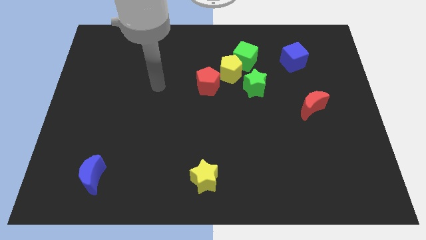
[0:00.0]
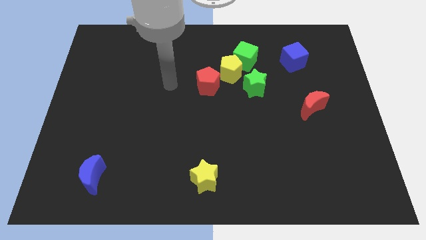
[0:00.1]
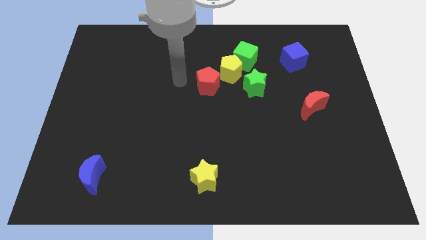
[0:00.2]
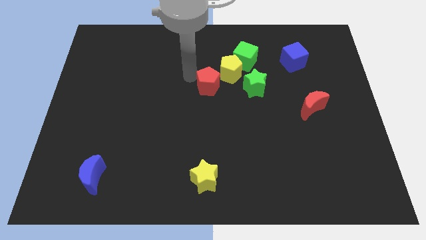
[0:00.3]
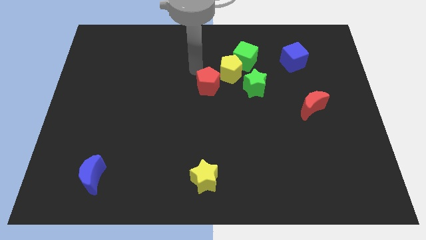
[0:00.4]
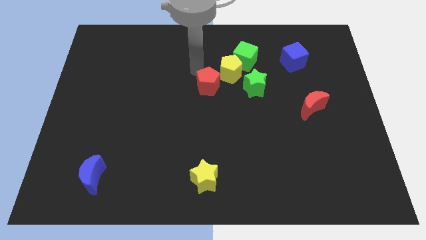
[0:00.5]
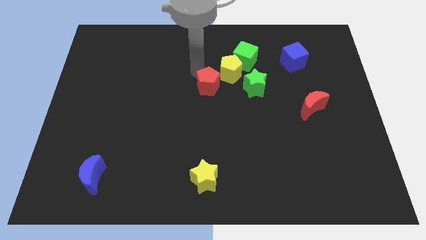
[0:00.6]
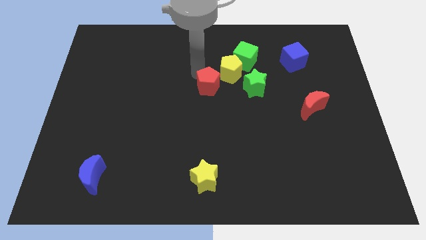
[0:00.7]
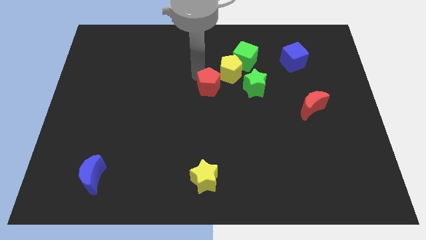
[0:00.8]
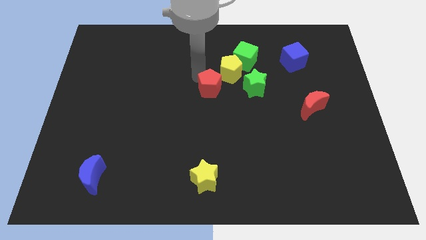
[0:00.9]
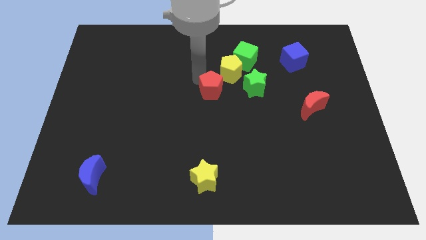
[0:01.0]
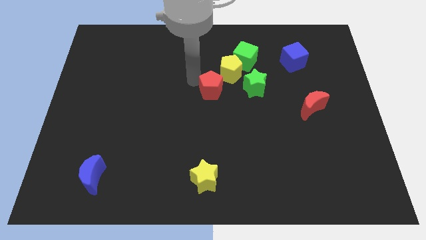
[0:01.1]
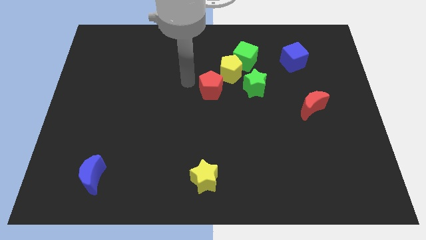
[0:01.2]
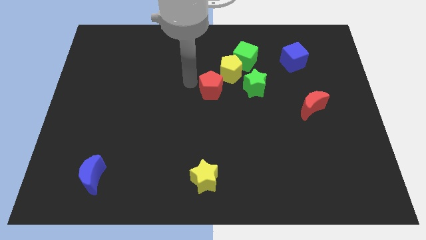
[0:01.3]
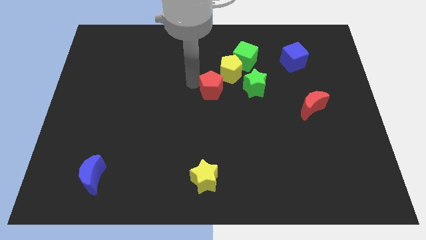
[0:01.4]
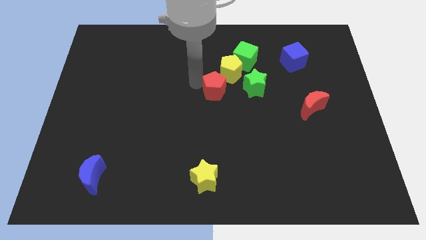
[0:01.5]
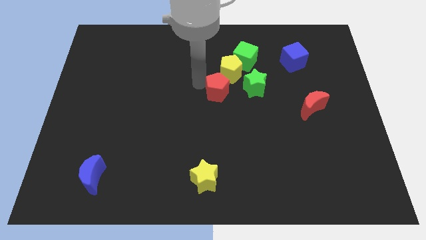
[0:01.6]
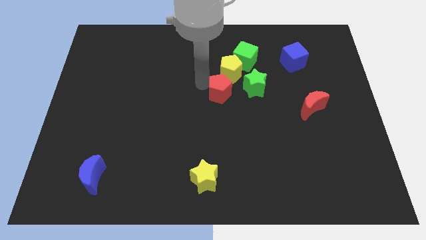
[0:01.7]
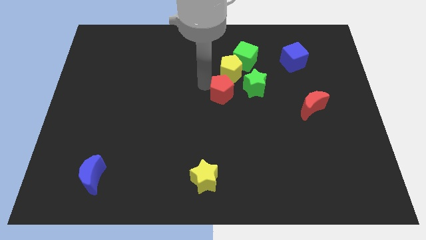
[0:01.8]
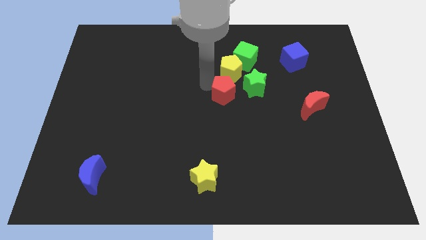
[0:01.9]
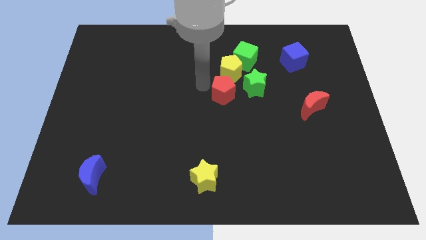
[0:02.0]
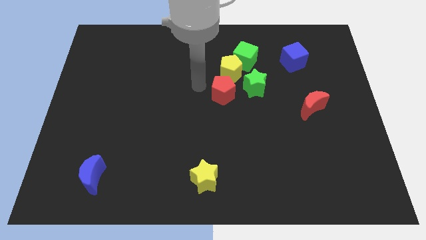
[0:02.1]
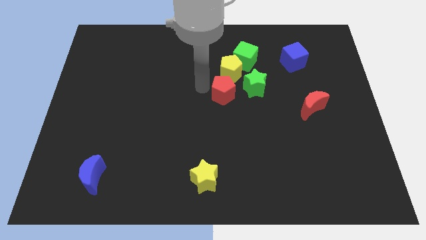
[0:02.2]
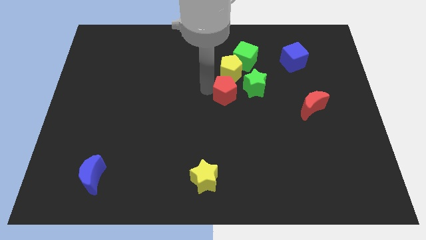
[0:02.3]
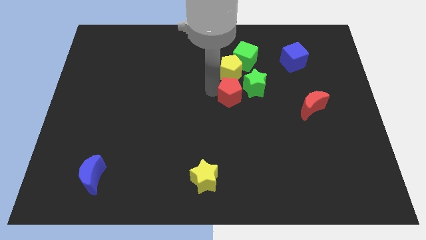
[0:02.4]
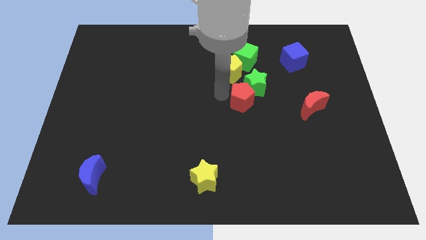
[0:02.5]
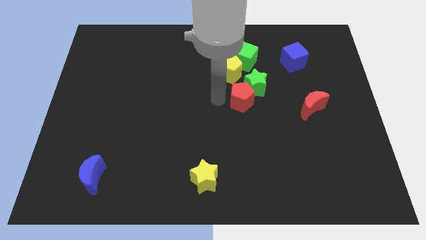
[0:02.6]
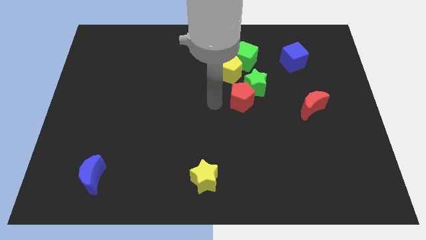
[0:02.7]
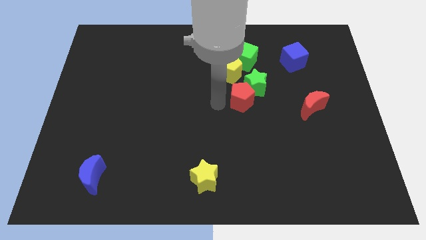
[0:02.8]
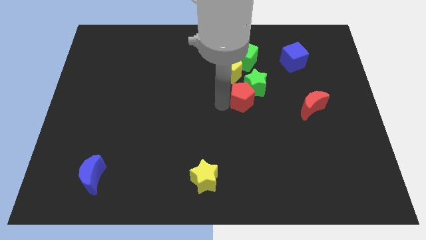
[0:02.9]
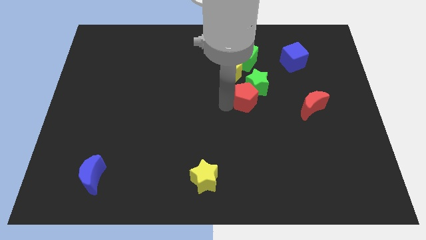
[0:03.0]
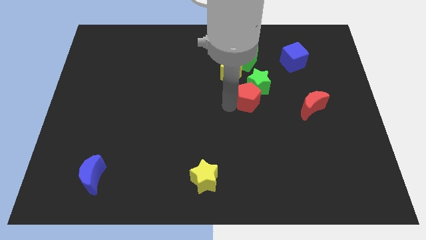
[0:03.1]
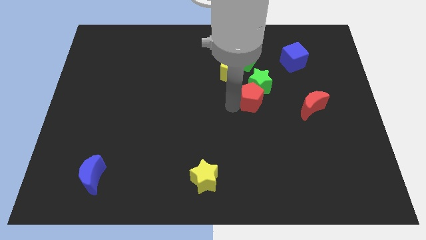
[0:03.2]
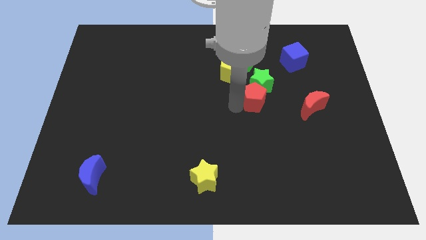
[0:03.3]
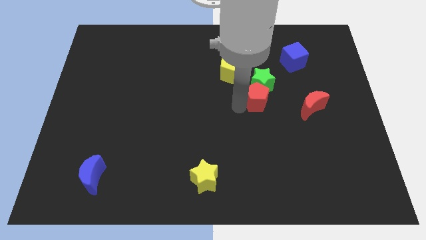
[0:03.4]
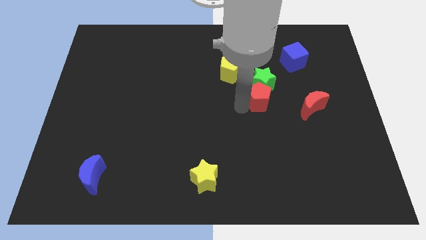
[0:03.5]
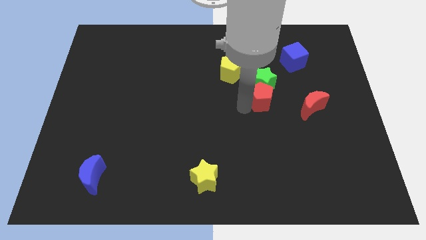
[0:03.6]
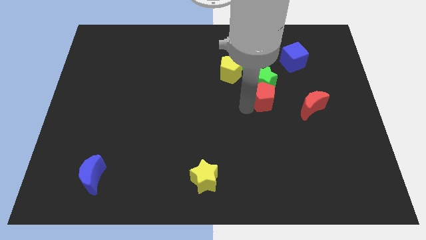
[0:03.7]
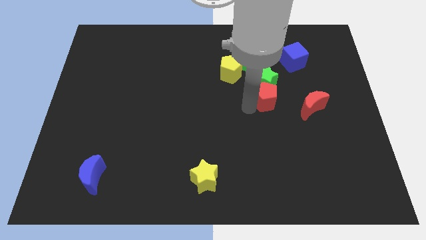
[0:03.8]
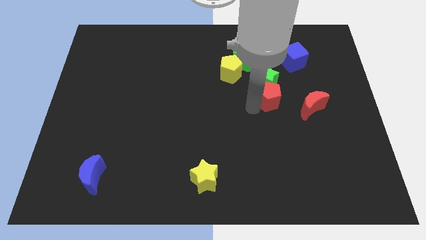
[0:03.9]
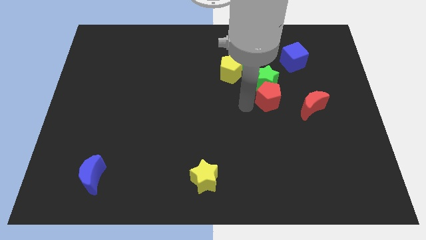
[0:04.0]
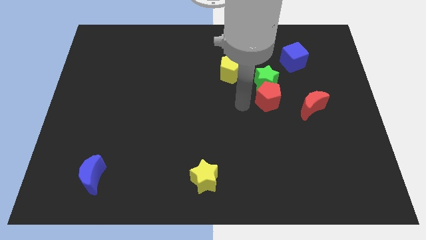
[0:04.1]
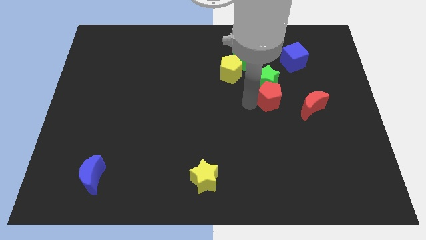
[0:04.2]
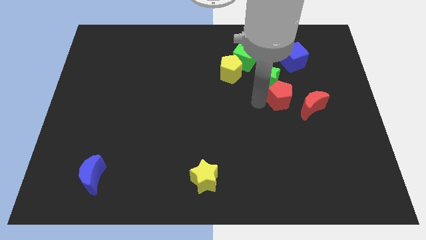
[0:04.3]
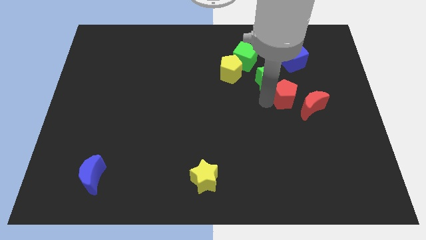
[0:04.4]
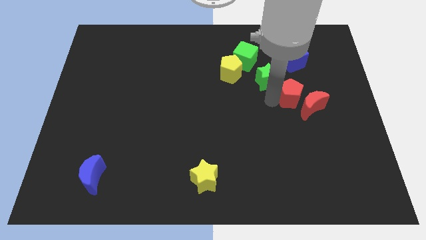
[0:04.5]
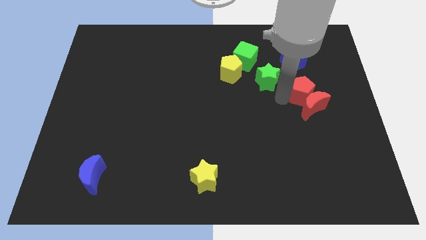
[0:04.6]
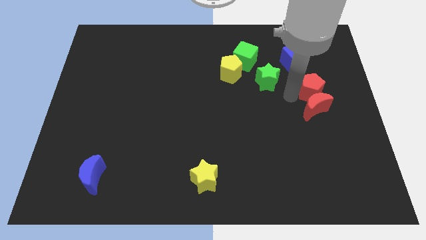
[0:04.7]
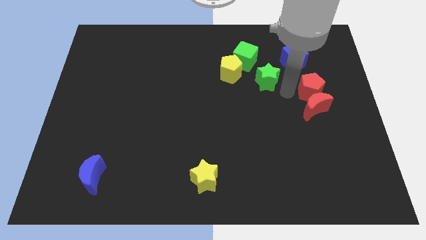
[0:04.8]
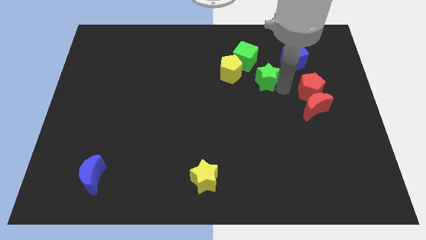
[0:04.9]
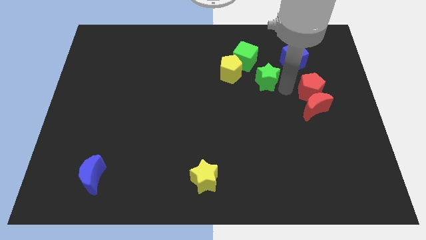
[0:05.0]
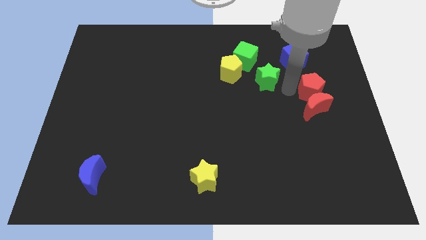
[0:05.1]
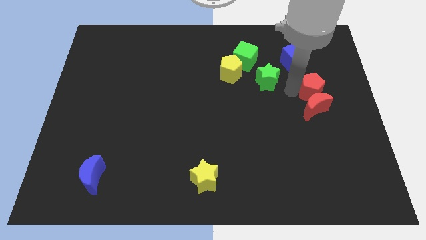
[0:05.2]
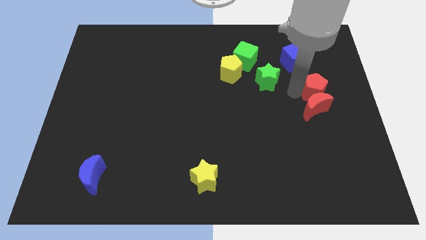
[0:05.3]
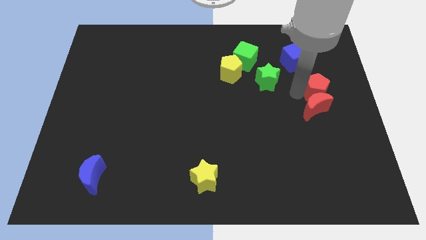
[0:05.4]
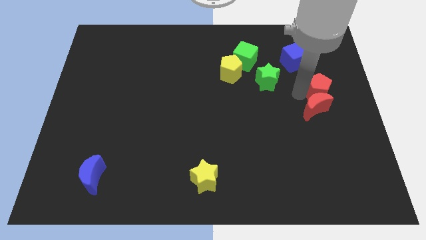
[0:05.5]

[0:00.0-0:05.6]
slide the red pentagon to the center right

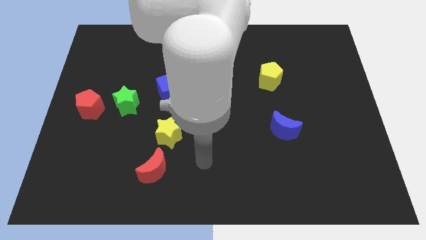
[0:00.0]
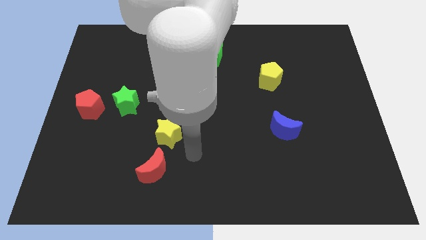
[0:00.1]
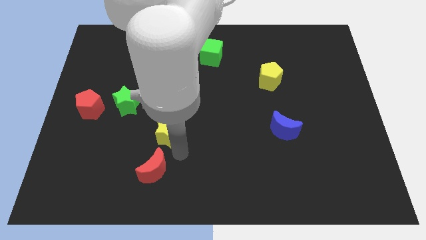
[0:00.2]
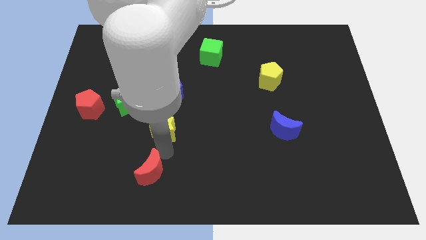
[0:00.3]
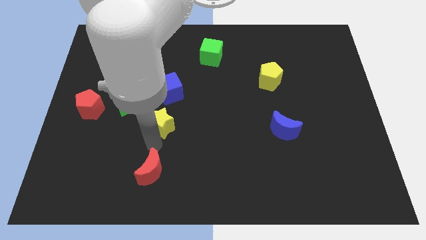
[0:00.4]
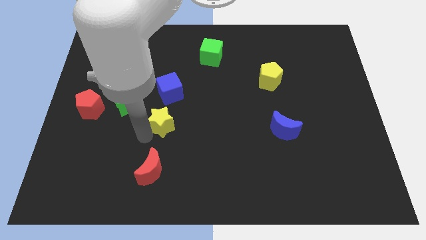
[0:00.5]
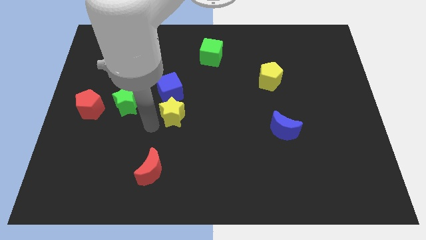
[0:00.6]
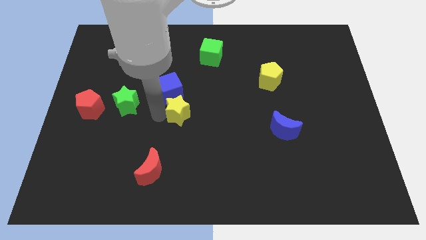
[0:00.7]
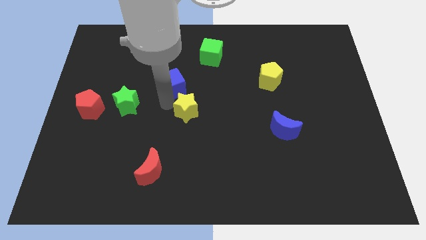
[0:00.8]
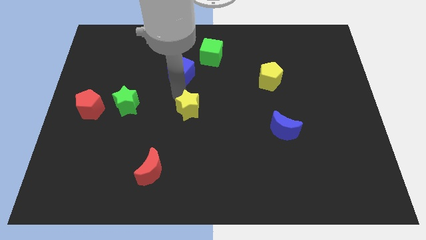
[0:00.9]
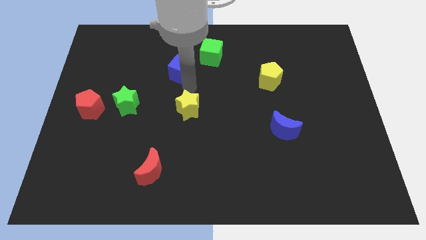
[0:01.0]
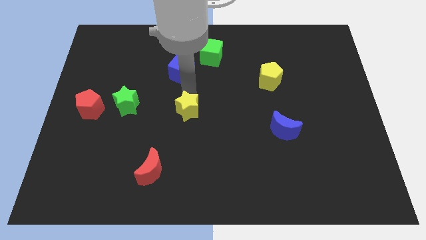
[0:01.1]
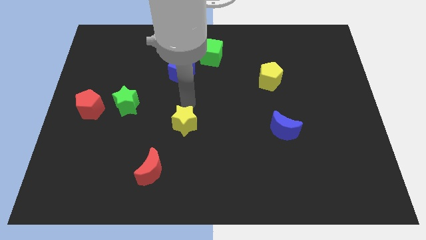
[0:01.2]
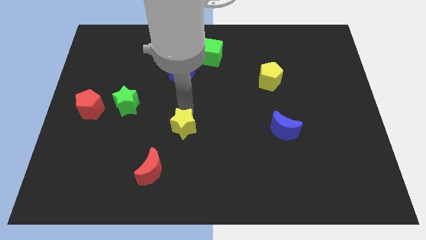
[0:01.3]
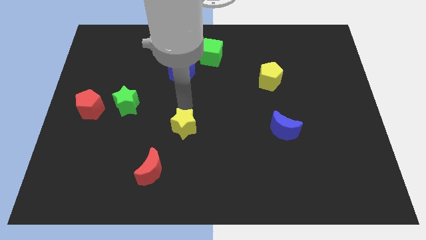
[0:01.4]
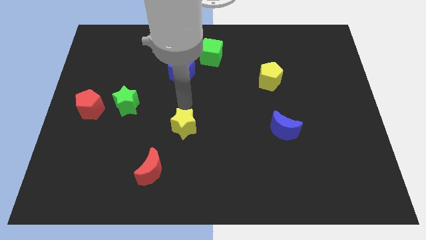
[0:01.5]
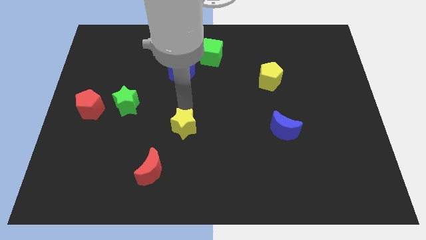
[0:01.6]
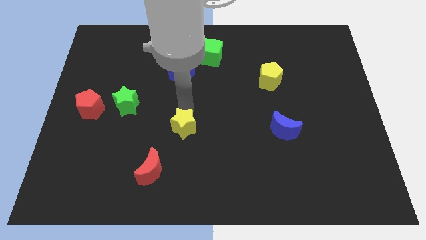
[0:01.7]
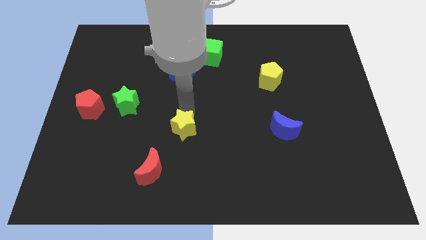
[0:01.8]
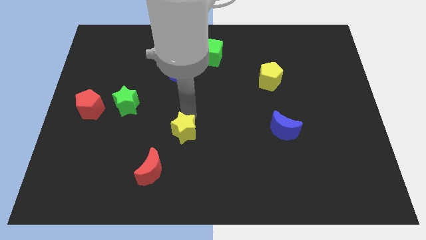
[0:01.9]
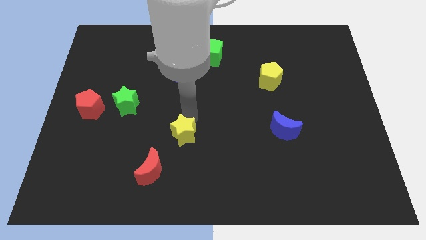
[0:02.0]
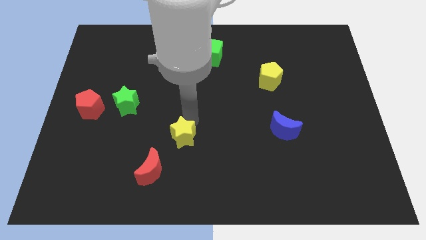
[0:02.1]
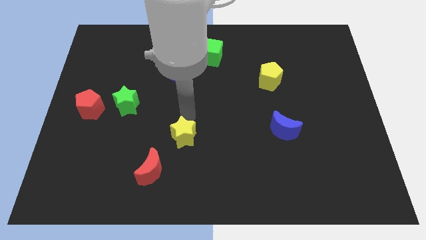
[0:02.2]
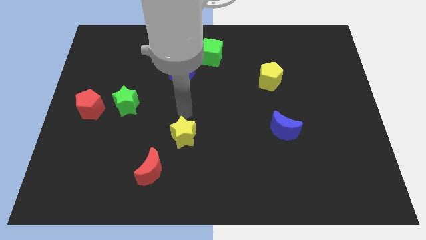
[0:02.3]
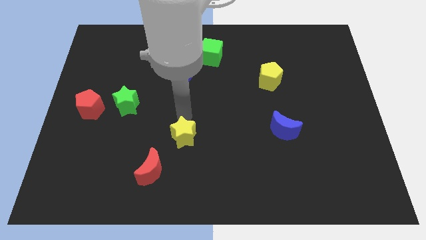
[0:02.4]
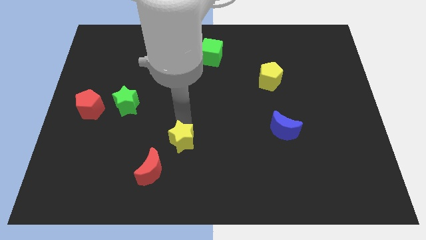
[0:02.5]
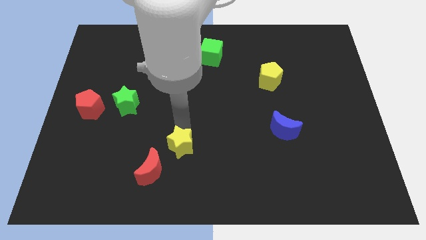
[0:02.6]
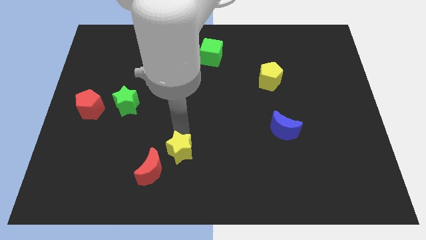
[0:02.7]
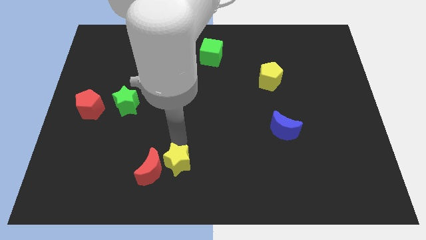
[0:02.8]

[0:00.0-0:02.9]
put the yellow star to the bottom
